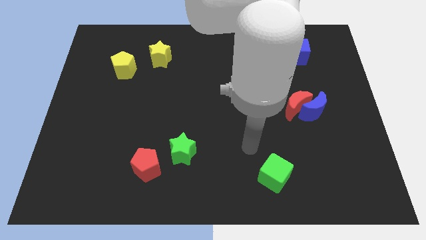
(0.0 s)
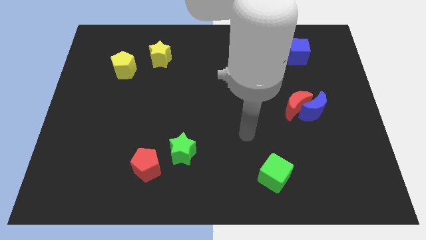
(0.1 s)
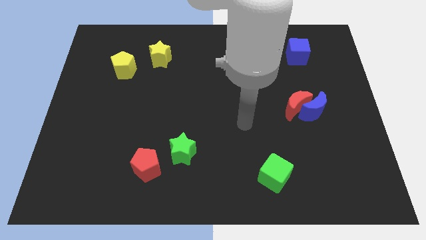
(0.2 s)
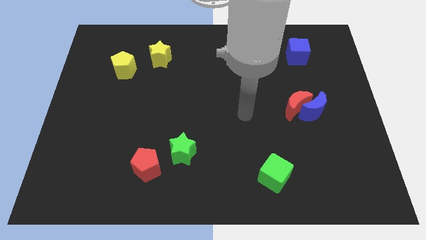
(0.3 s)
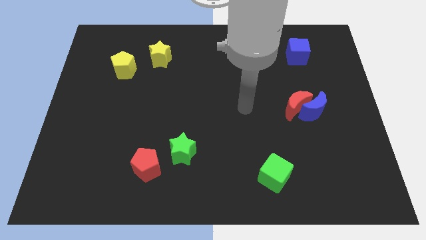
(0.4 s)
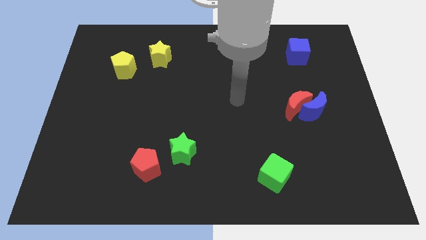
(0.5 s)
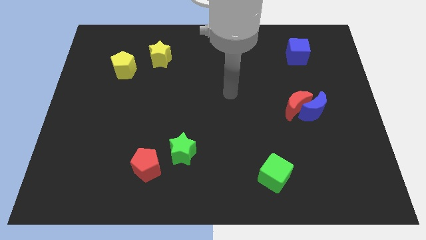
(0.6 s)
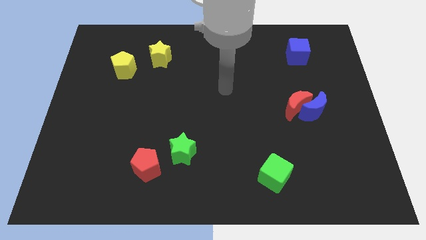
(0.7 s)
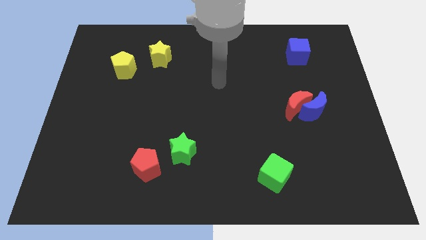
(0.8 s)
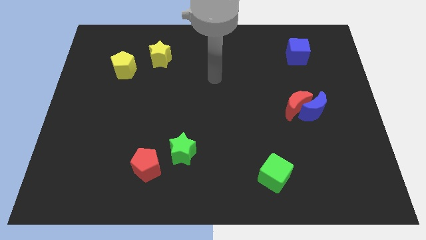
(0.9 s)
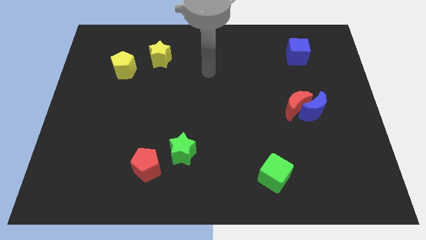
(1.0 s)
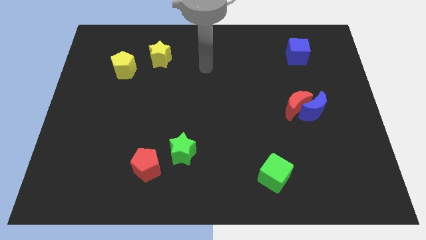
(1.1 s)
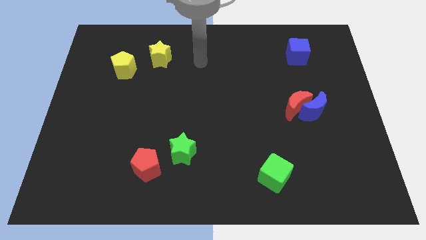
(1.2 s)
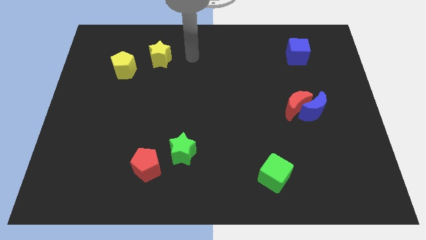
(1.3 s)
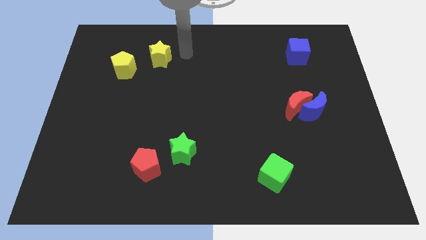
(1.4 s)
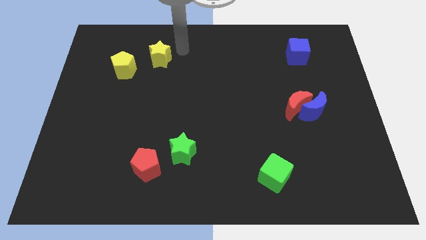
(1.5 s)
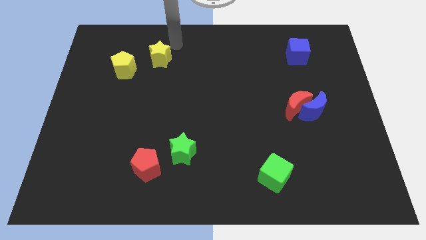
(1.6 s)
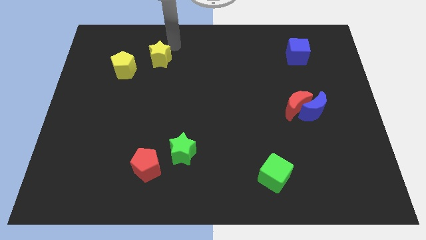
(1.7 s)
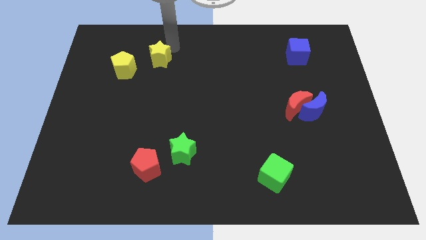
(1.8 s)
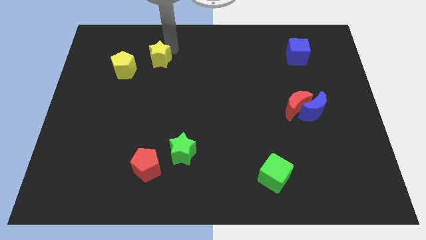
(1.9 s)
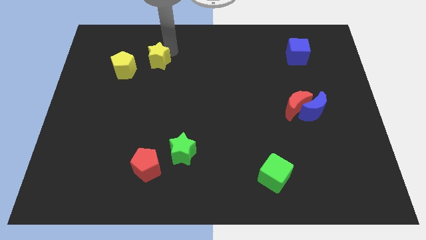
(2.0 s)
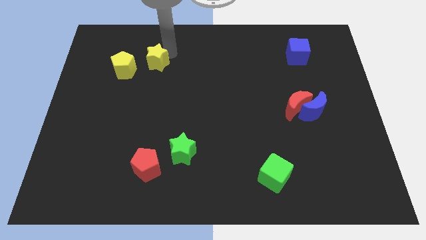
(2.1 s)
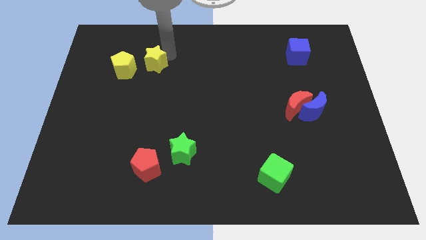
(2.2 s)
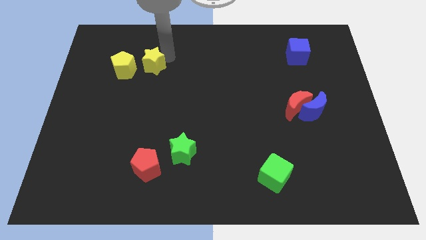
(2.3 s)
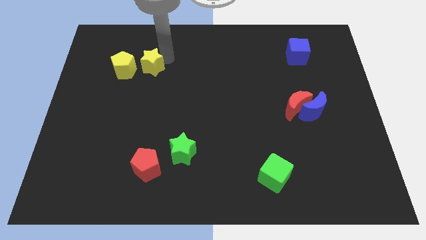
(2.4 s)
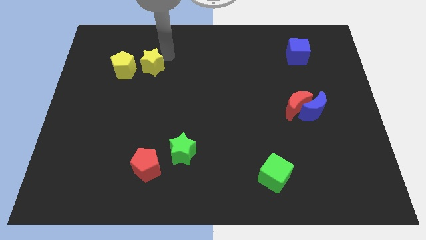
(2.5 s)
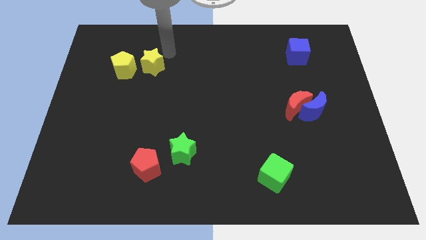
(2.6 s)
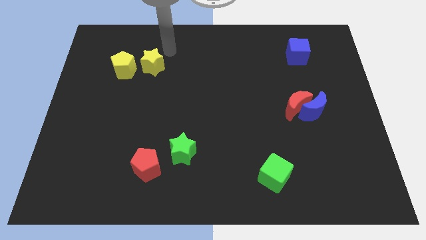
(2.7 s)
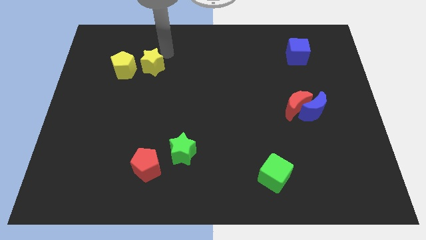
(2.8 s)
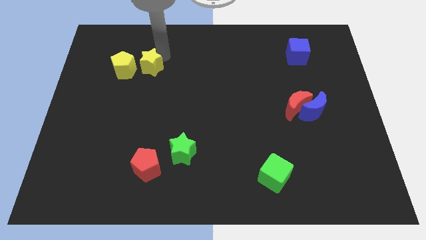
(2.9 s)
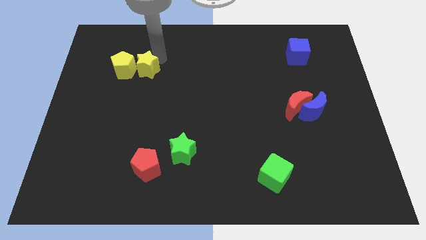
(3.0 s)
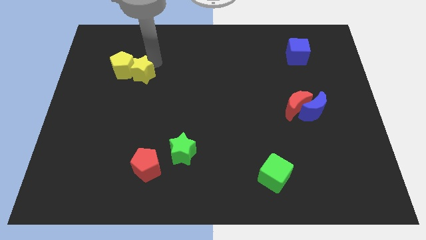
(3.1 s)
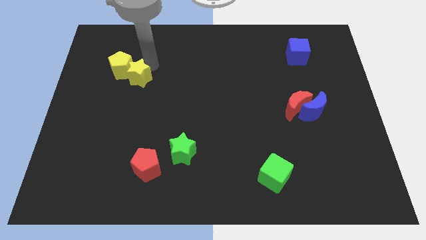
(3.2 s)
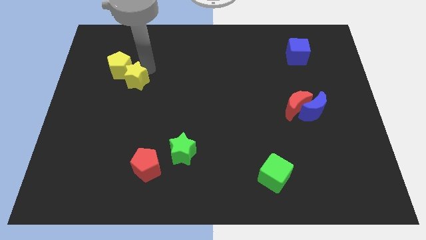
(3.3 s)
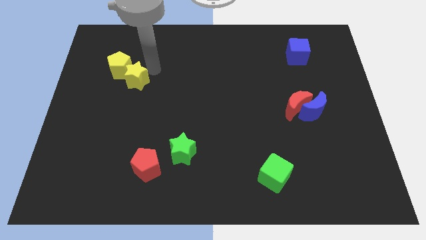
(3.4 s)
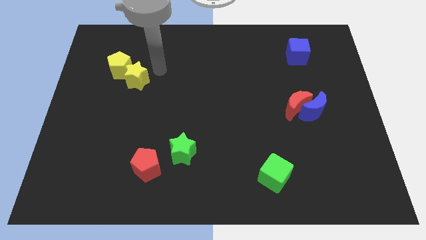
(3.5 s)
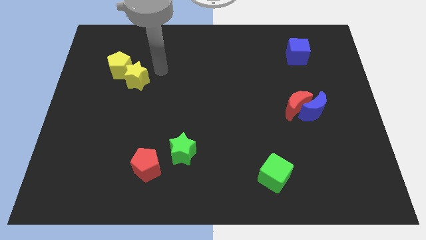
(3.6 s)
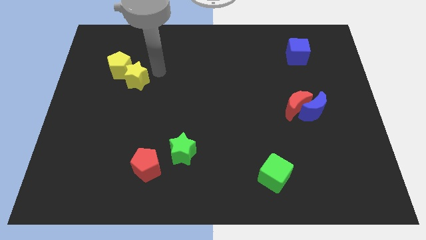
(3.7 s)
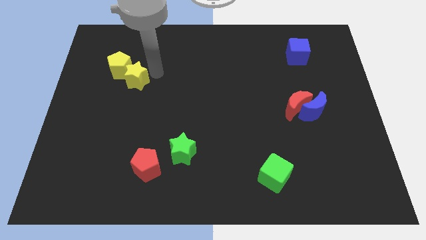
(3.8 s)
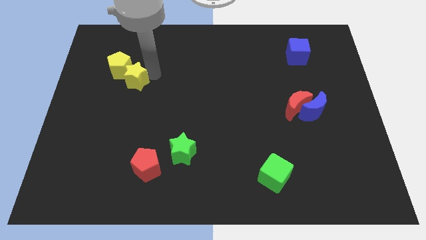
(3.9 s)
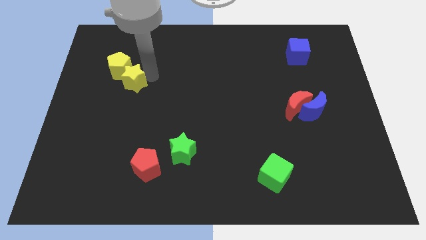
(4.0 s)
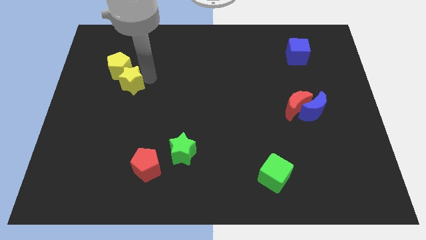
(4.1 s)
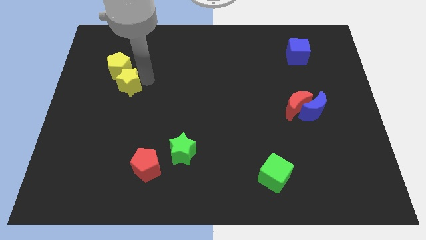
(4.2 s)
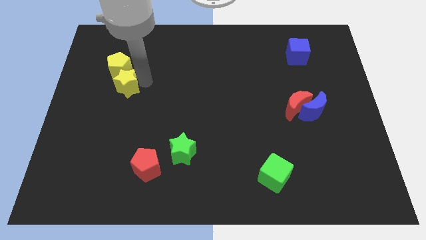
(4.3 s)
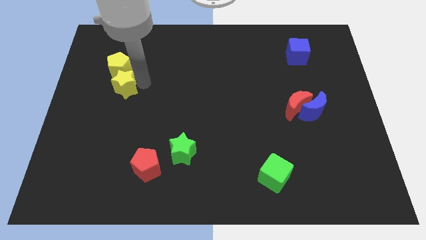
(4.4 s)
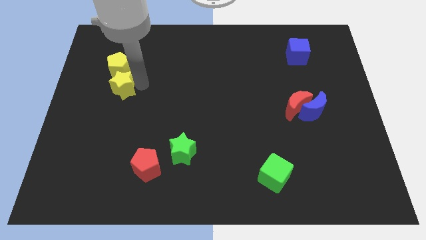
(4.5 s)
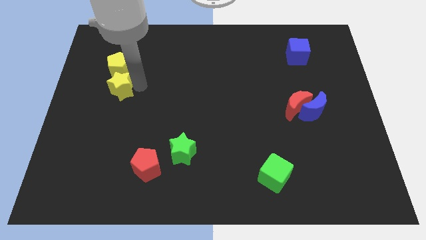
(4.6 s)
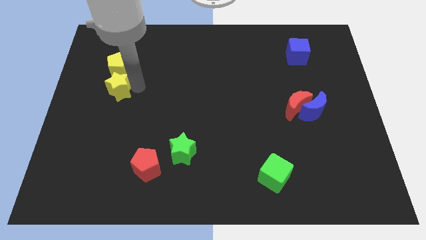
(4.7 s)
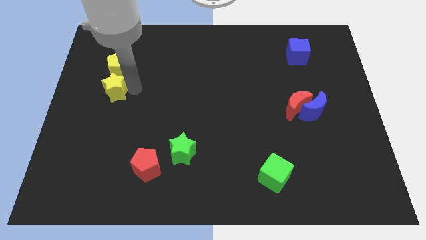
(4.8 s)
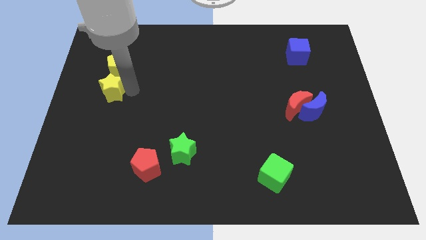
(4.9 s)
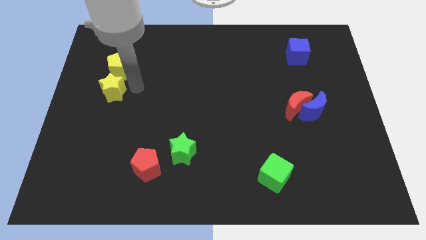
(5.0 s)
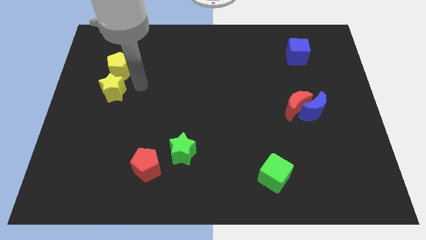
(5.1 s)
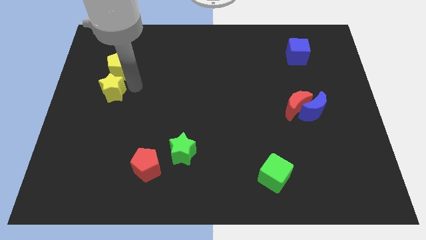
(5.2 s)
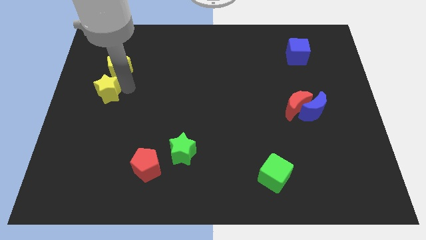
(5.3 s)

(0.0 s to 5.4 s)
put the yellow star to the left side

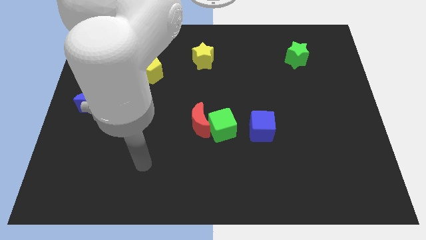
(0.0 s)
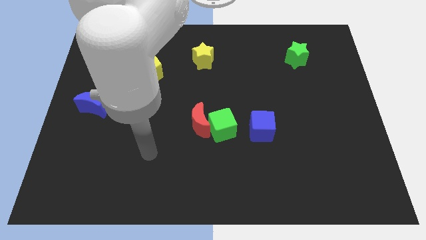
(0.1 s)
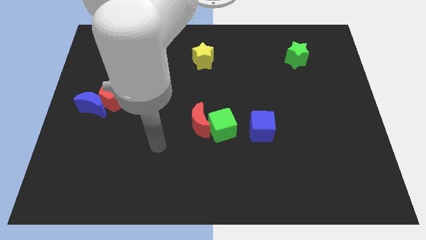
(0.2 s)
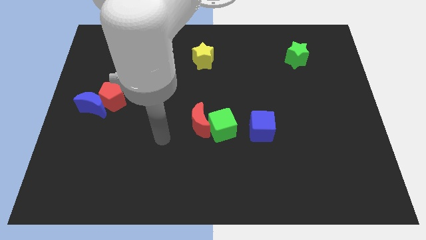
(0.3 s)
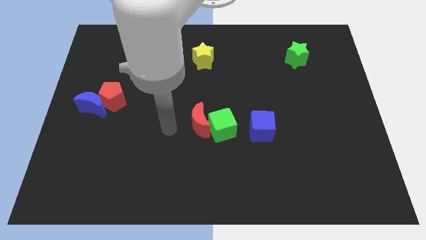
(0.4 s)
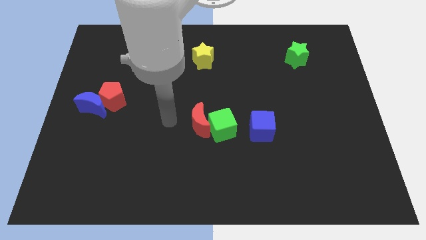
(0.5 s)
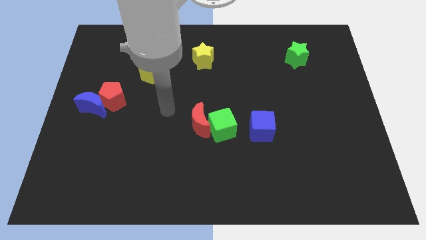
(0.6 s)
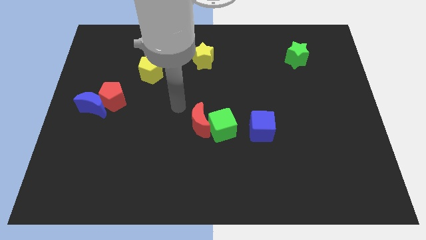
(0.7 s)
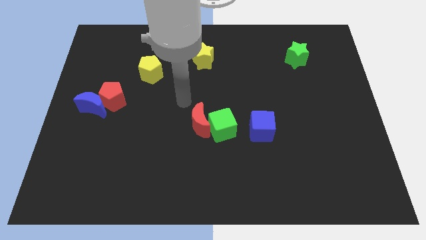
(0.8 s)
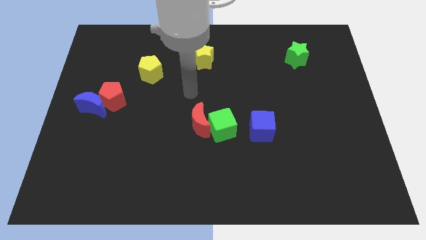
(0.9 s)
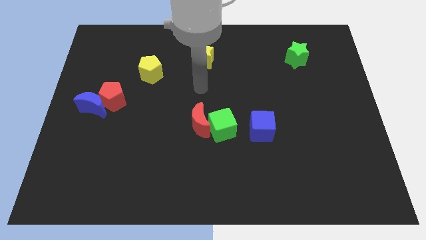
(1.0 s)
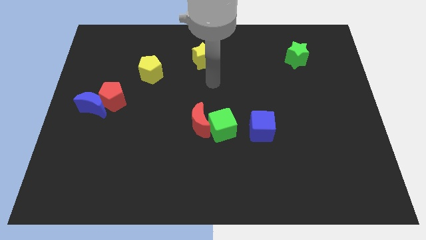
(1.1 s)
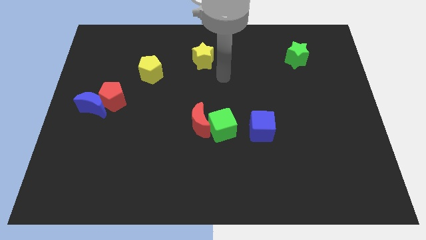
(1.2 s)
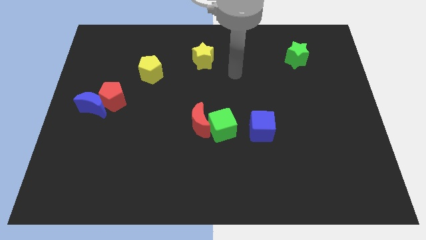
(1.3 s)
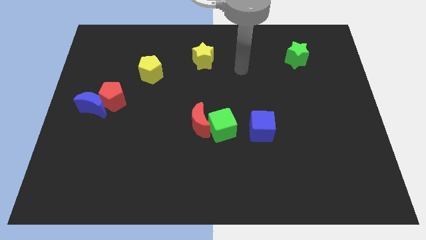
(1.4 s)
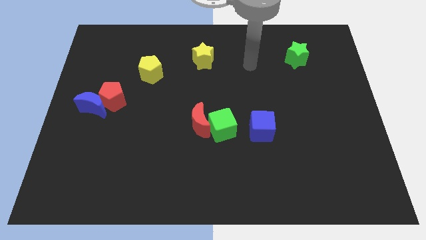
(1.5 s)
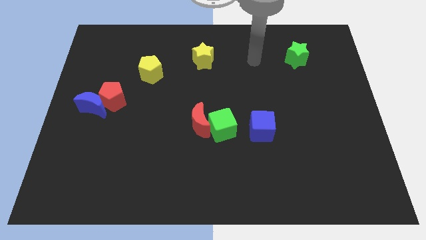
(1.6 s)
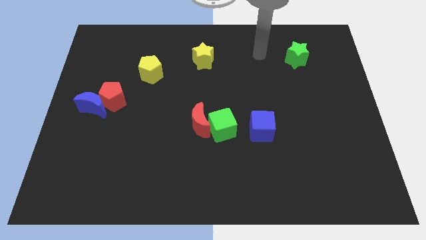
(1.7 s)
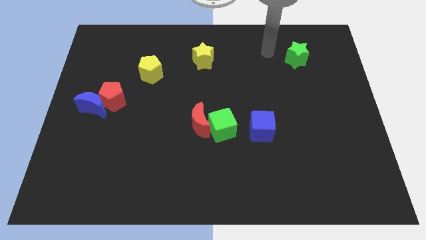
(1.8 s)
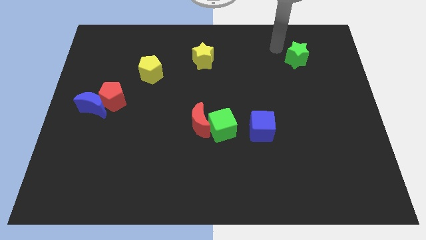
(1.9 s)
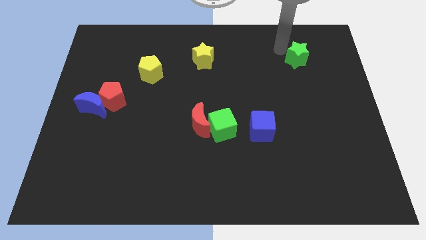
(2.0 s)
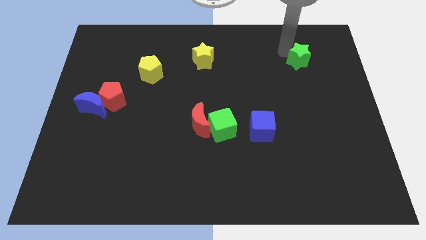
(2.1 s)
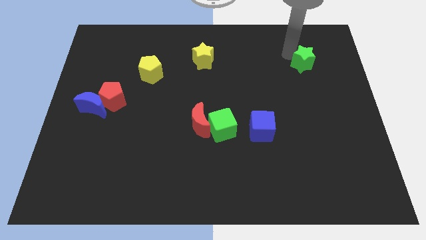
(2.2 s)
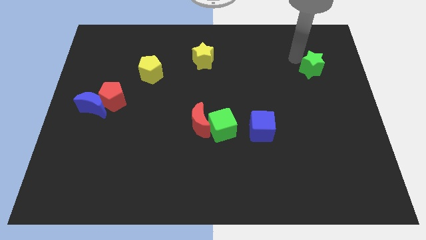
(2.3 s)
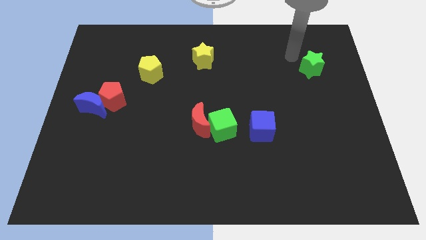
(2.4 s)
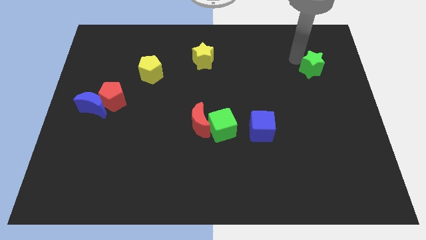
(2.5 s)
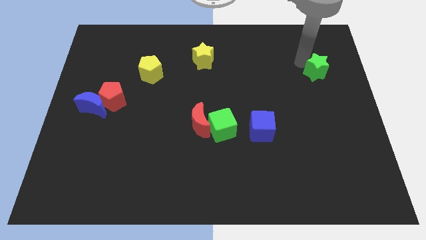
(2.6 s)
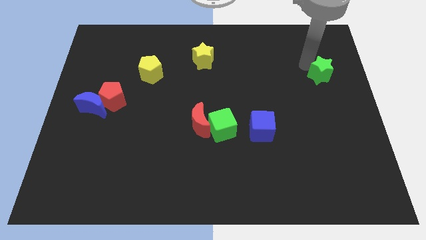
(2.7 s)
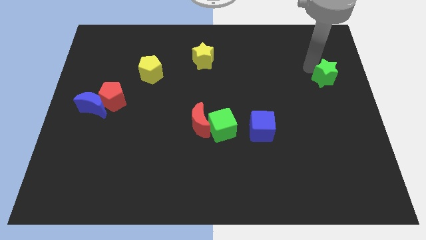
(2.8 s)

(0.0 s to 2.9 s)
slide the green star to the center right
